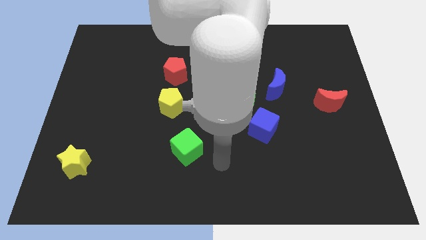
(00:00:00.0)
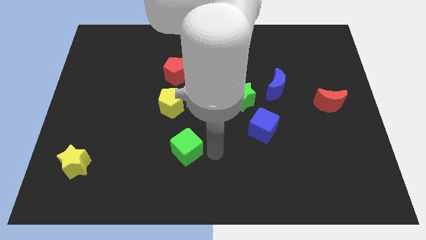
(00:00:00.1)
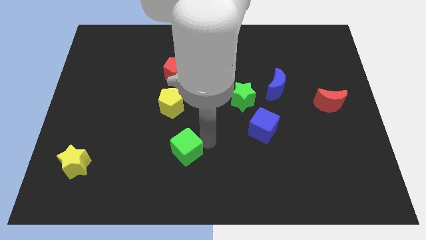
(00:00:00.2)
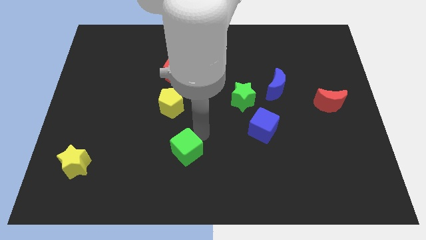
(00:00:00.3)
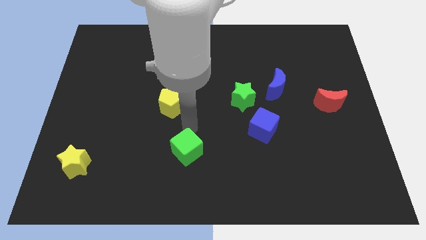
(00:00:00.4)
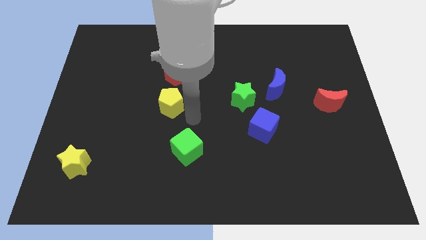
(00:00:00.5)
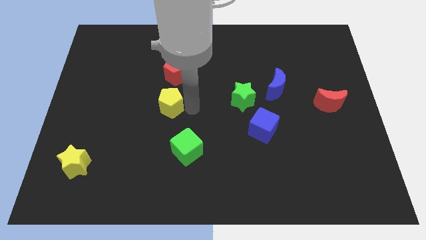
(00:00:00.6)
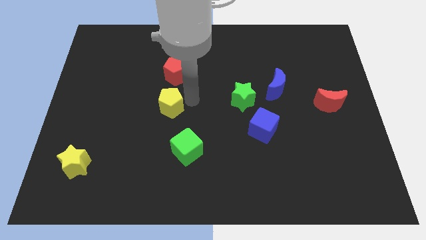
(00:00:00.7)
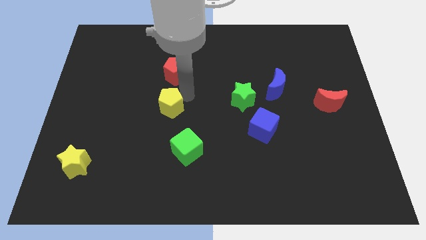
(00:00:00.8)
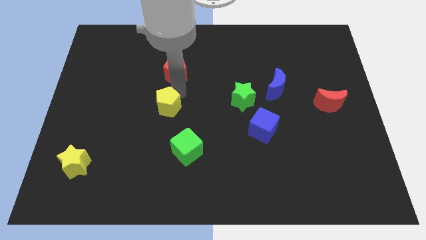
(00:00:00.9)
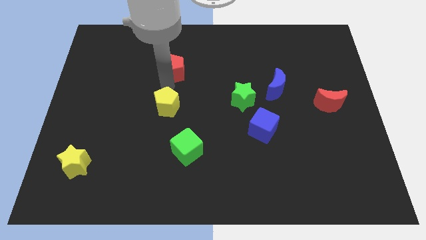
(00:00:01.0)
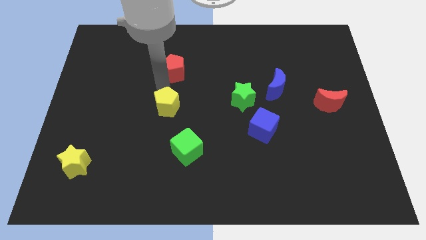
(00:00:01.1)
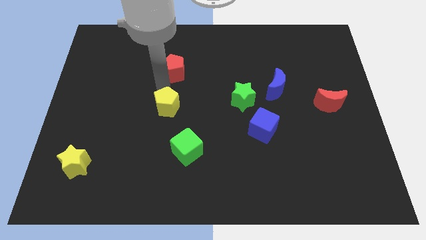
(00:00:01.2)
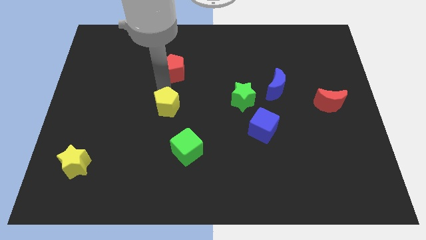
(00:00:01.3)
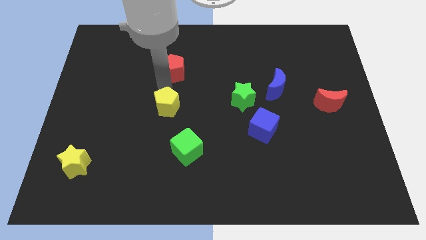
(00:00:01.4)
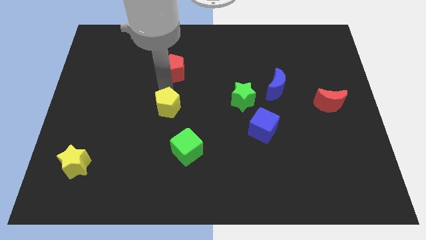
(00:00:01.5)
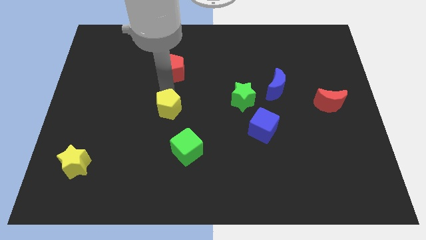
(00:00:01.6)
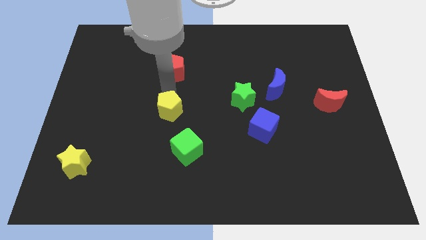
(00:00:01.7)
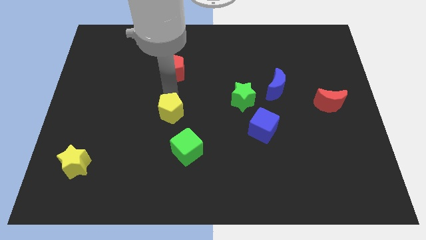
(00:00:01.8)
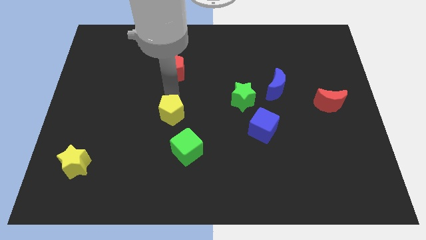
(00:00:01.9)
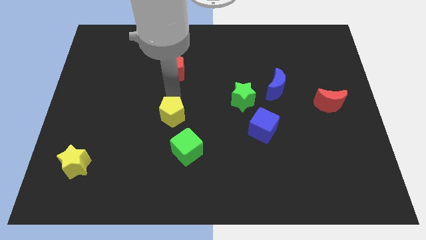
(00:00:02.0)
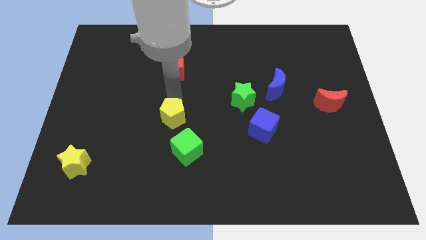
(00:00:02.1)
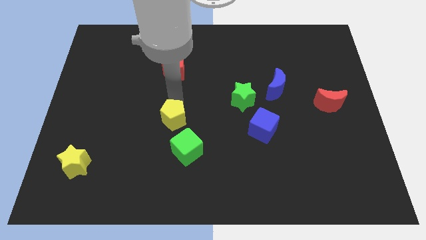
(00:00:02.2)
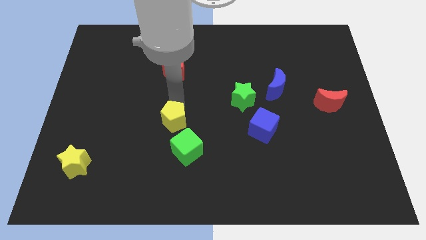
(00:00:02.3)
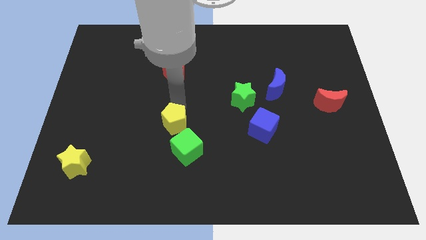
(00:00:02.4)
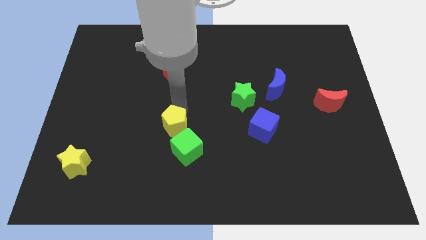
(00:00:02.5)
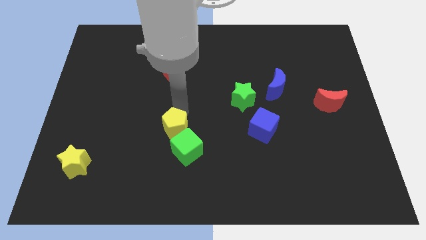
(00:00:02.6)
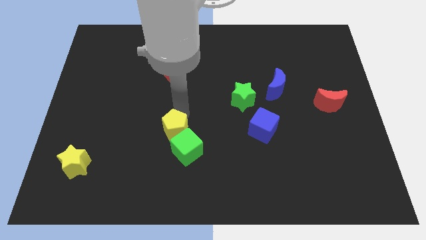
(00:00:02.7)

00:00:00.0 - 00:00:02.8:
slightly slide the yellow pentagon downwards

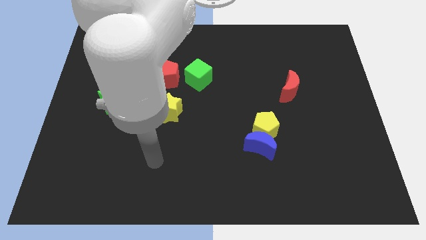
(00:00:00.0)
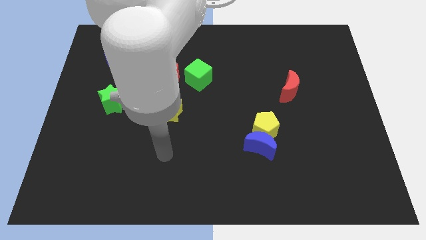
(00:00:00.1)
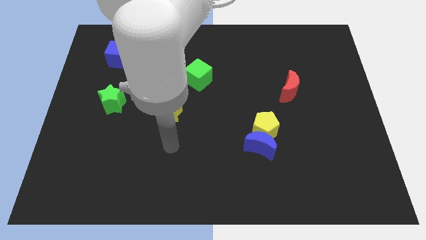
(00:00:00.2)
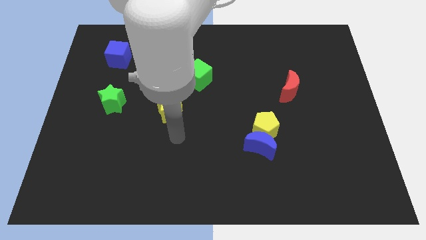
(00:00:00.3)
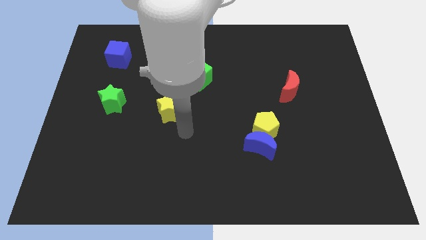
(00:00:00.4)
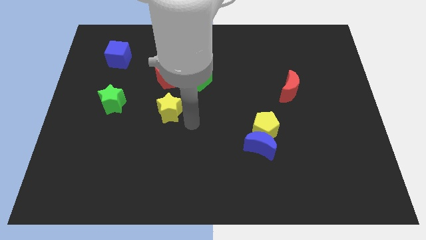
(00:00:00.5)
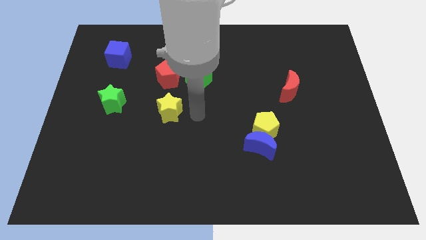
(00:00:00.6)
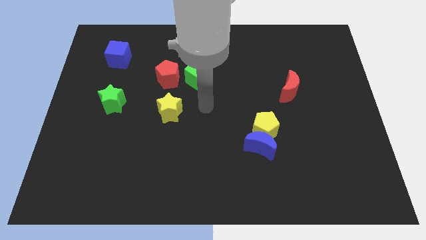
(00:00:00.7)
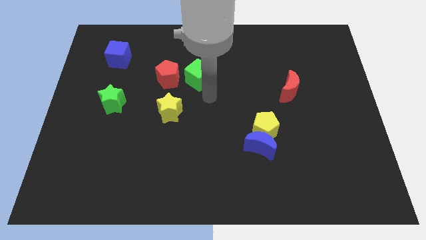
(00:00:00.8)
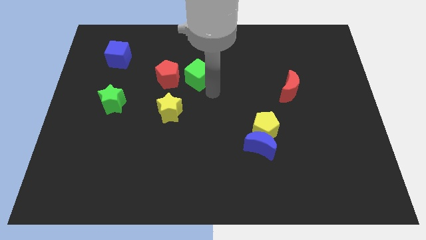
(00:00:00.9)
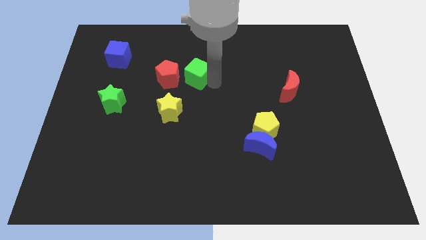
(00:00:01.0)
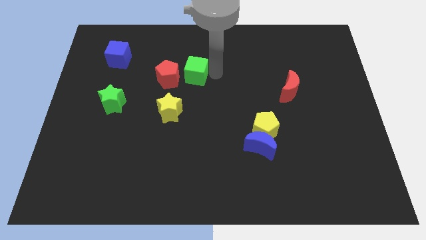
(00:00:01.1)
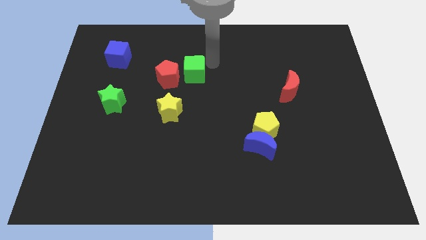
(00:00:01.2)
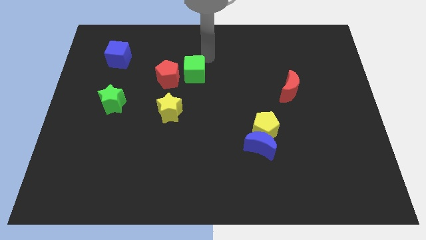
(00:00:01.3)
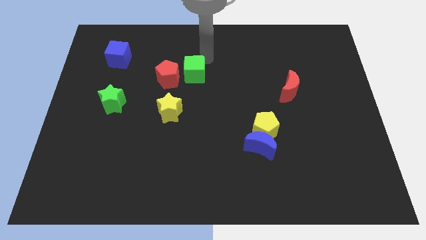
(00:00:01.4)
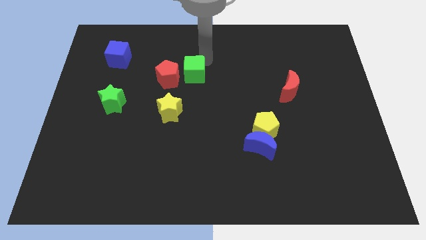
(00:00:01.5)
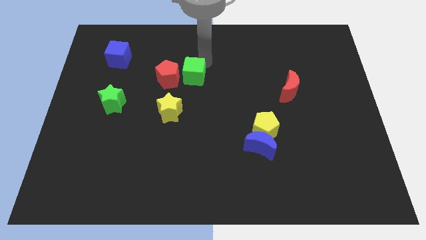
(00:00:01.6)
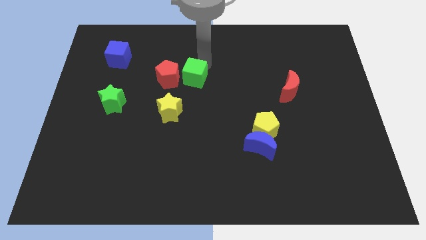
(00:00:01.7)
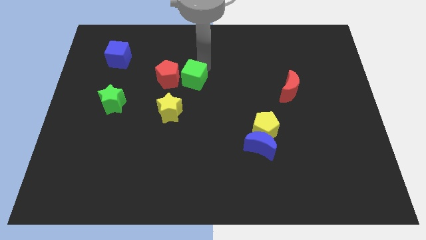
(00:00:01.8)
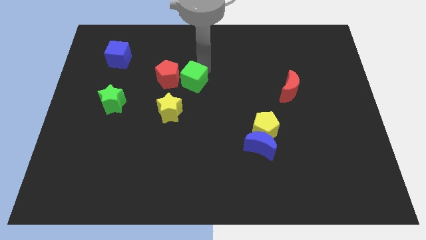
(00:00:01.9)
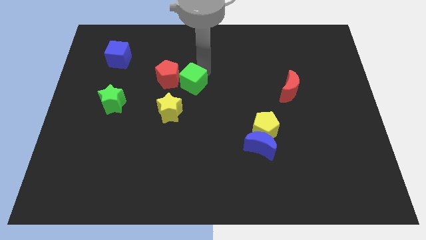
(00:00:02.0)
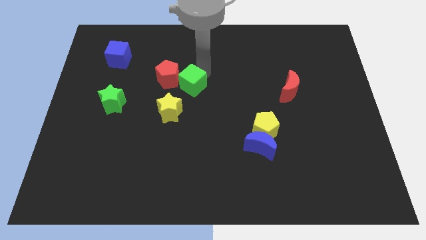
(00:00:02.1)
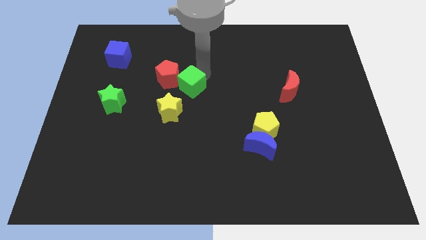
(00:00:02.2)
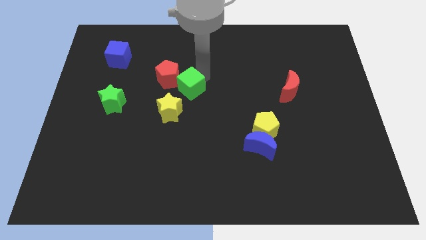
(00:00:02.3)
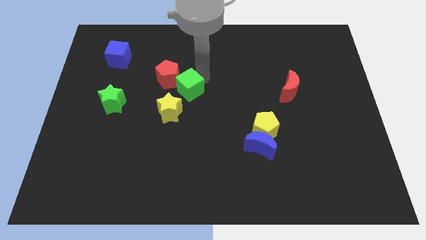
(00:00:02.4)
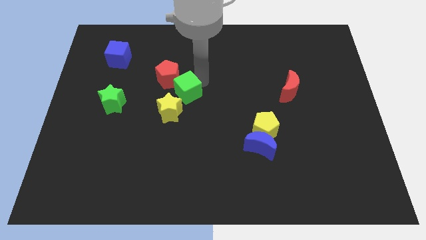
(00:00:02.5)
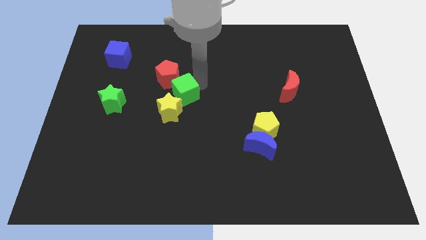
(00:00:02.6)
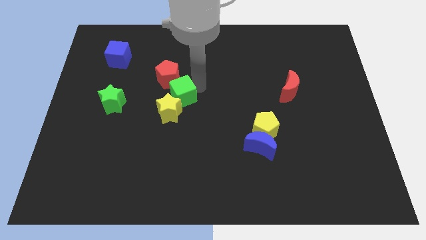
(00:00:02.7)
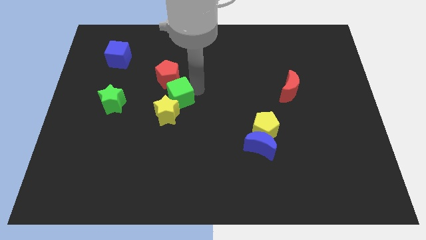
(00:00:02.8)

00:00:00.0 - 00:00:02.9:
slide the green cube down and left a little

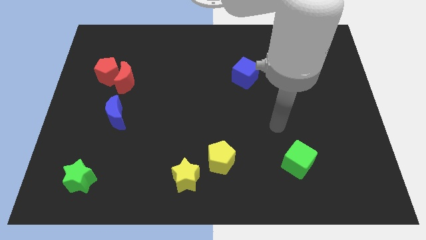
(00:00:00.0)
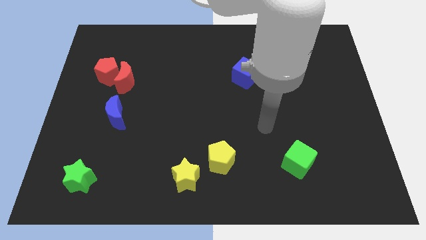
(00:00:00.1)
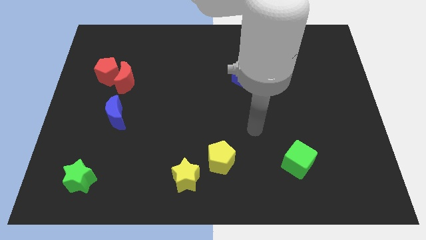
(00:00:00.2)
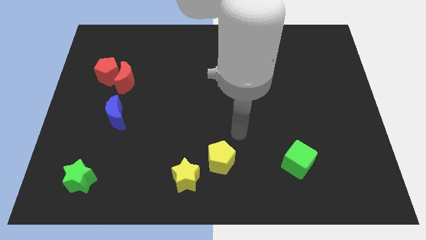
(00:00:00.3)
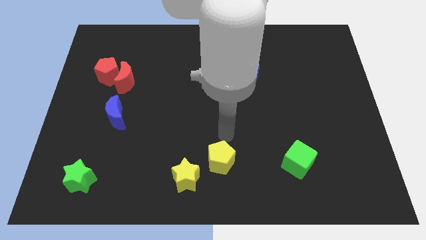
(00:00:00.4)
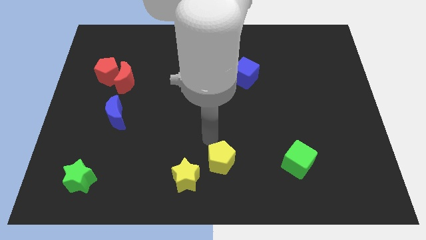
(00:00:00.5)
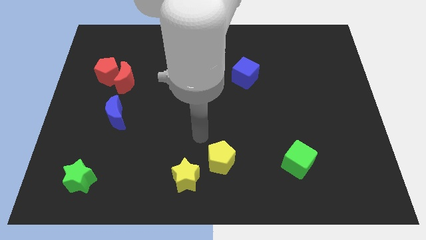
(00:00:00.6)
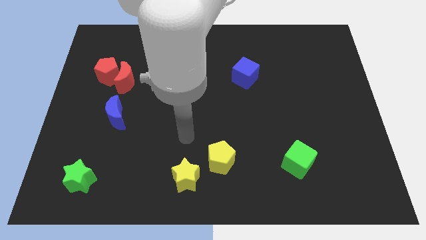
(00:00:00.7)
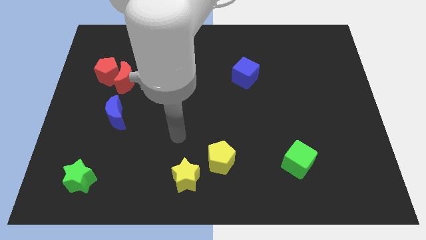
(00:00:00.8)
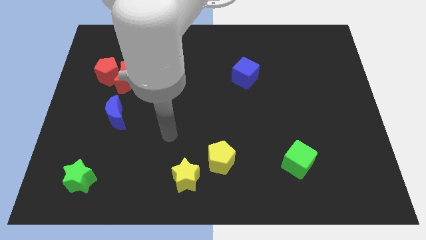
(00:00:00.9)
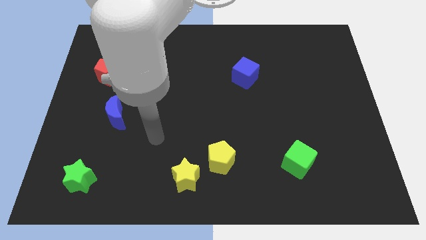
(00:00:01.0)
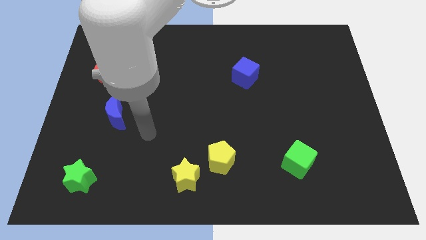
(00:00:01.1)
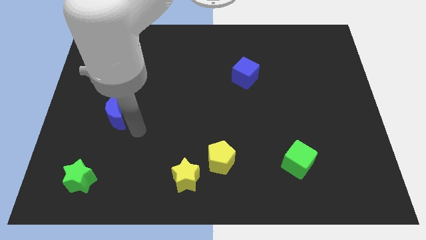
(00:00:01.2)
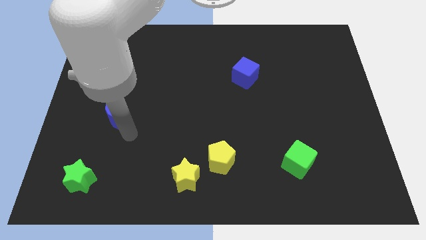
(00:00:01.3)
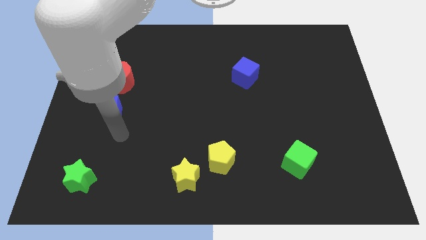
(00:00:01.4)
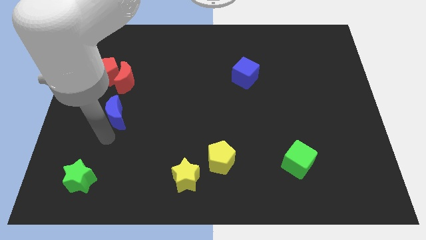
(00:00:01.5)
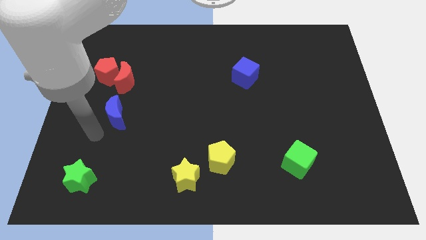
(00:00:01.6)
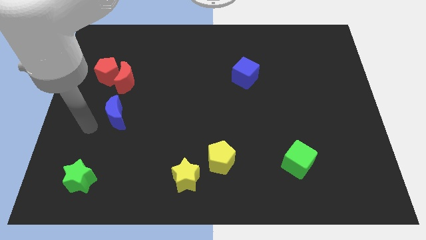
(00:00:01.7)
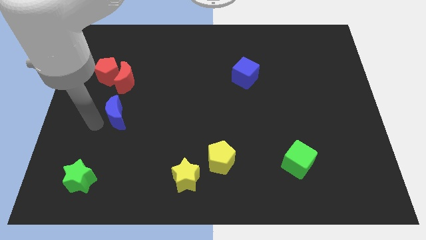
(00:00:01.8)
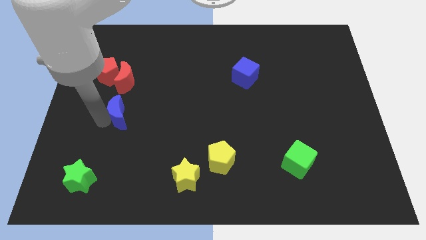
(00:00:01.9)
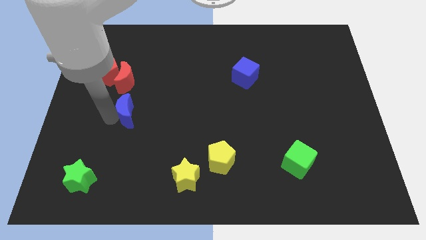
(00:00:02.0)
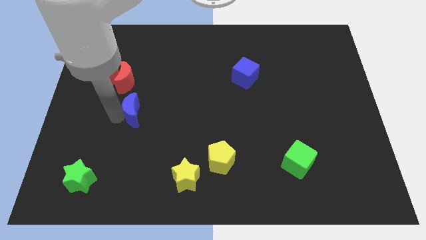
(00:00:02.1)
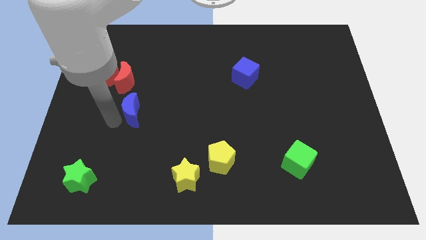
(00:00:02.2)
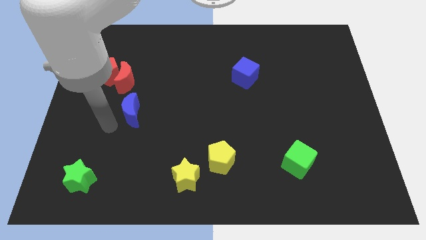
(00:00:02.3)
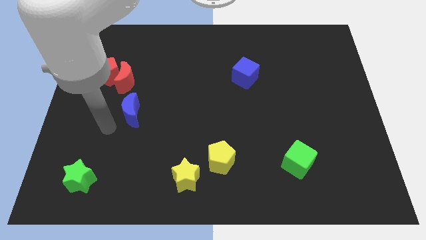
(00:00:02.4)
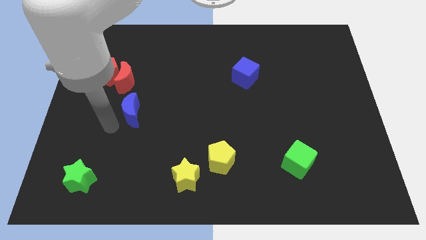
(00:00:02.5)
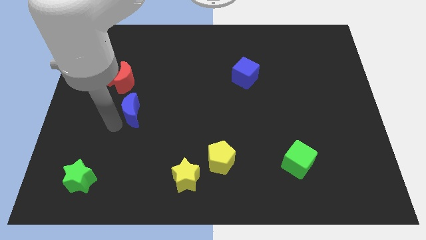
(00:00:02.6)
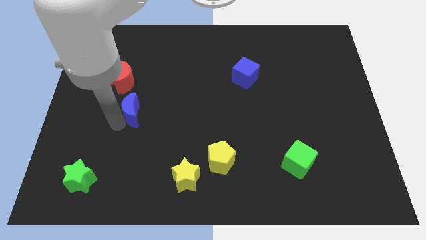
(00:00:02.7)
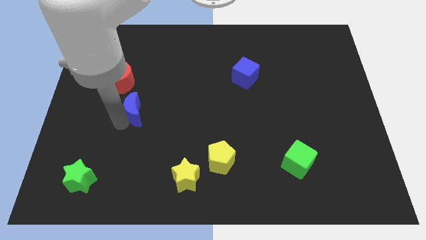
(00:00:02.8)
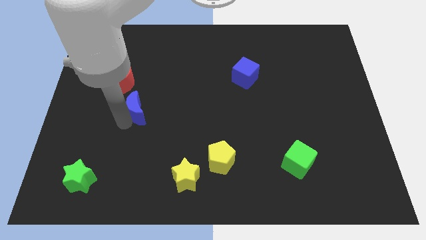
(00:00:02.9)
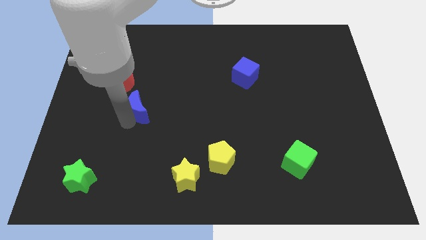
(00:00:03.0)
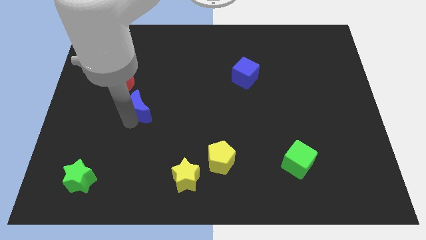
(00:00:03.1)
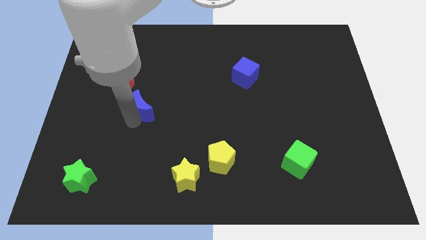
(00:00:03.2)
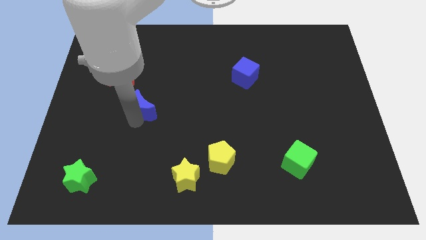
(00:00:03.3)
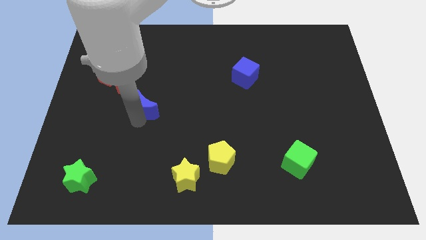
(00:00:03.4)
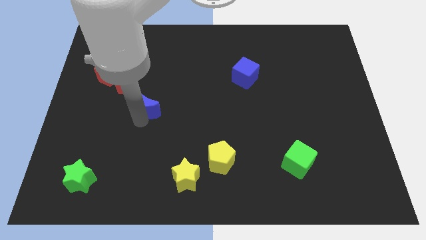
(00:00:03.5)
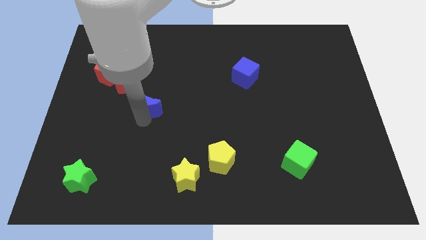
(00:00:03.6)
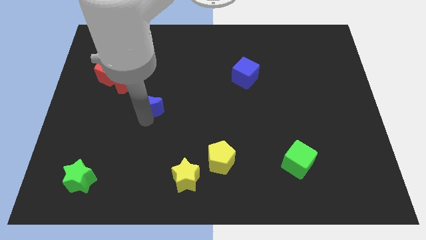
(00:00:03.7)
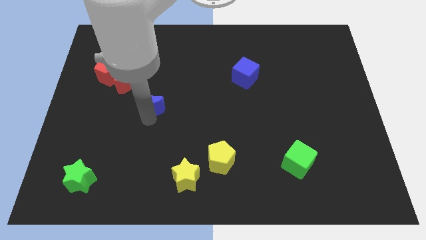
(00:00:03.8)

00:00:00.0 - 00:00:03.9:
move the blue moon up and right somewhat
